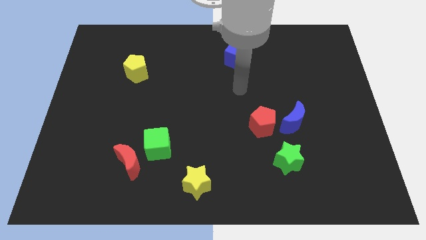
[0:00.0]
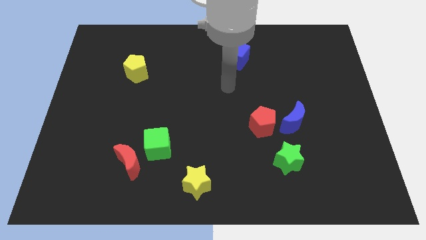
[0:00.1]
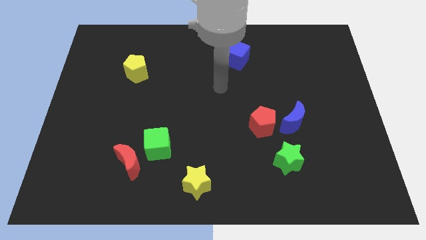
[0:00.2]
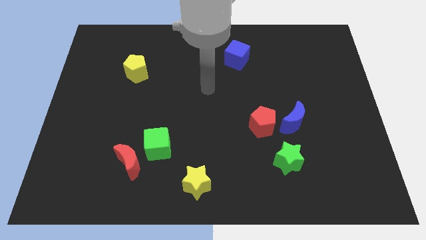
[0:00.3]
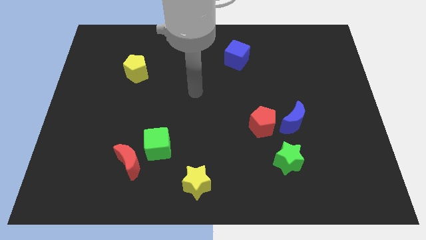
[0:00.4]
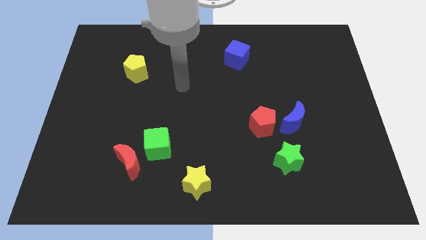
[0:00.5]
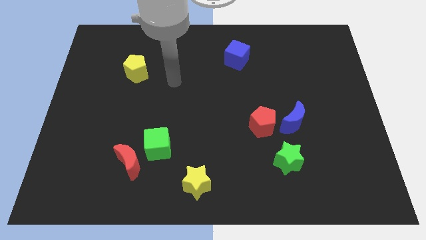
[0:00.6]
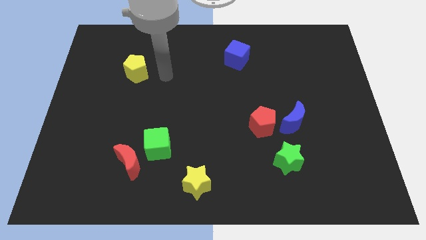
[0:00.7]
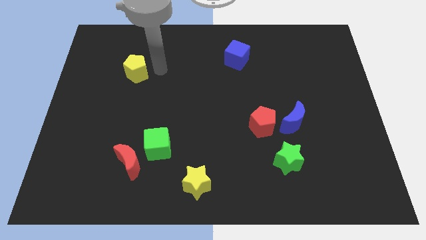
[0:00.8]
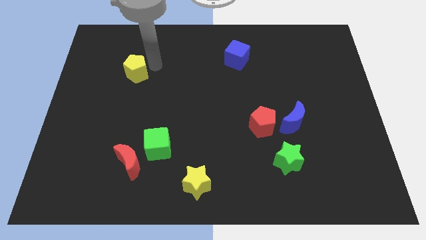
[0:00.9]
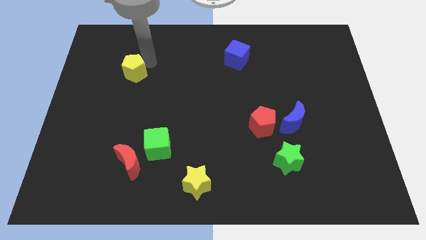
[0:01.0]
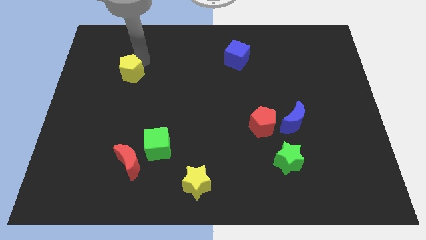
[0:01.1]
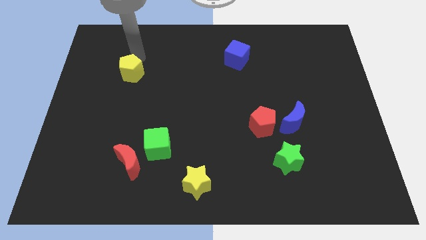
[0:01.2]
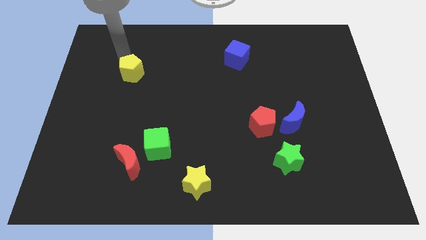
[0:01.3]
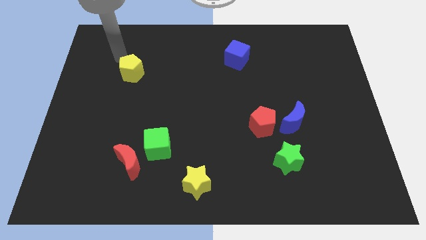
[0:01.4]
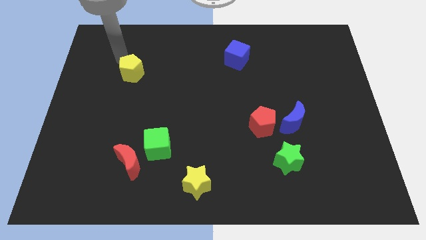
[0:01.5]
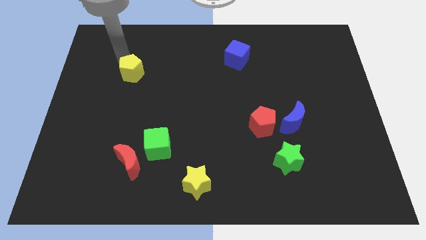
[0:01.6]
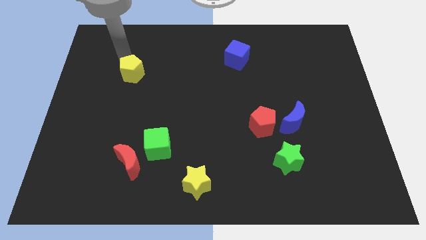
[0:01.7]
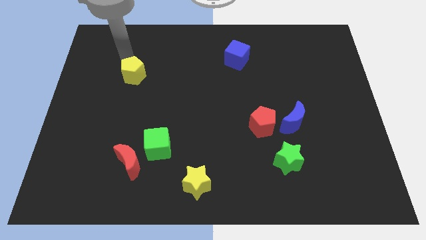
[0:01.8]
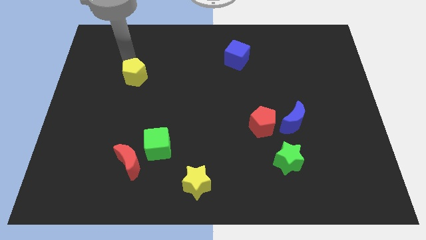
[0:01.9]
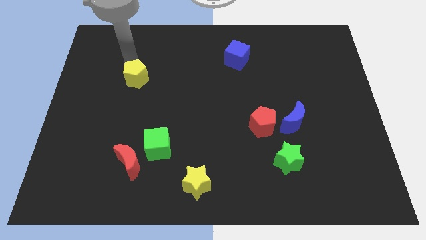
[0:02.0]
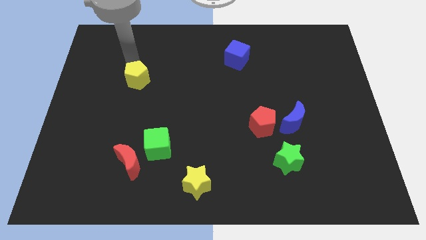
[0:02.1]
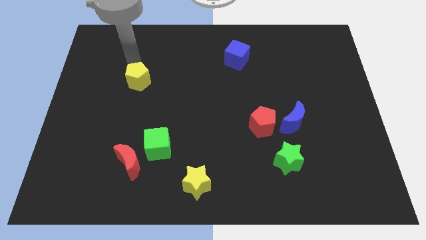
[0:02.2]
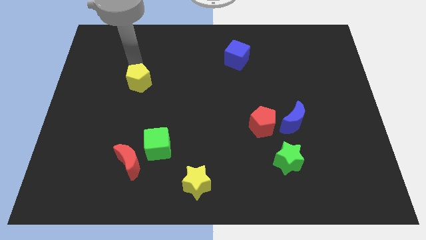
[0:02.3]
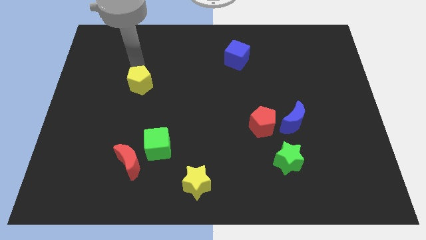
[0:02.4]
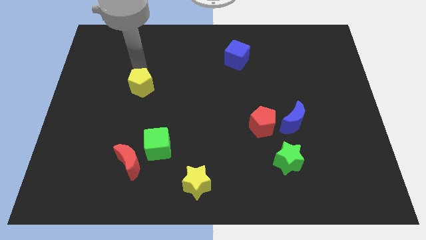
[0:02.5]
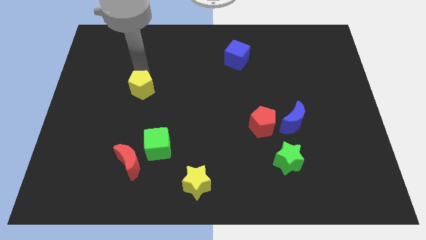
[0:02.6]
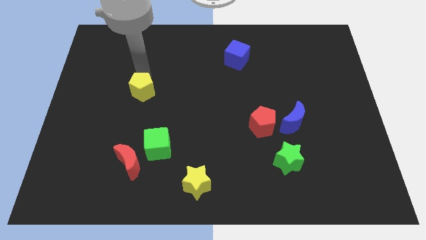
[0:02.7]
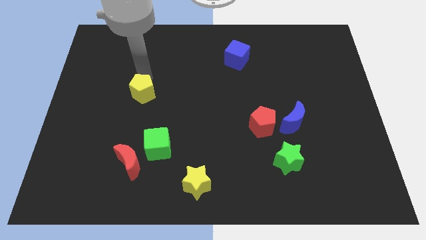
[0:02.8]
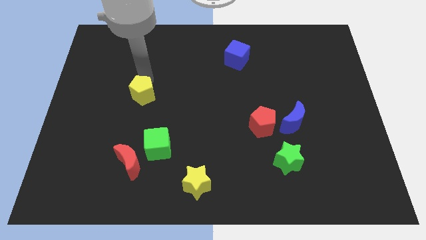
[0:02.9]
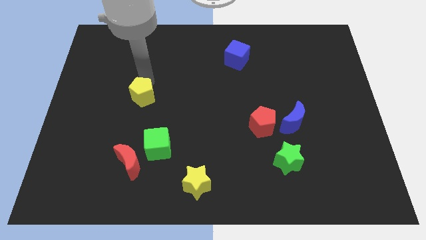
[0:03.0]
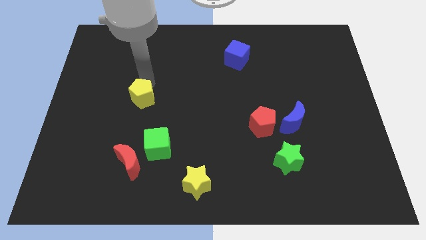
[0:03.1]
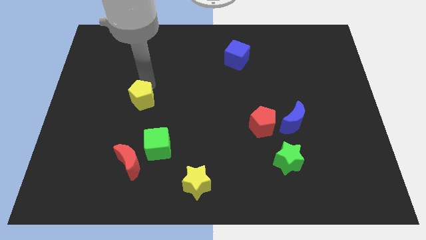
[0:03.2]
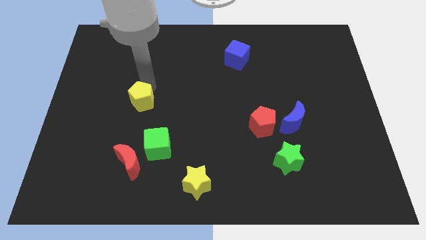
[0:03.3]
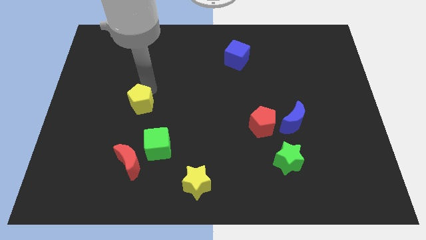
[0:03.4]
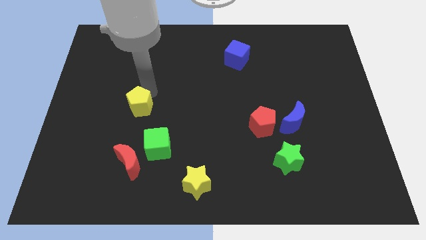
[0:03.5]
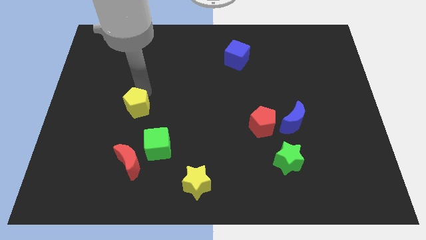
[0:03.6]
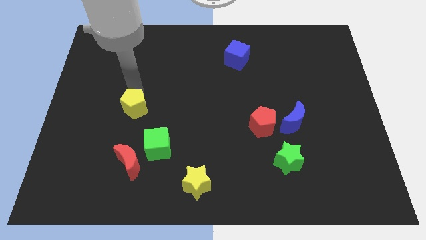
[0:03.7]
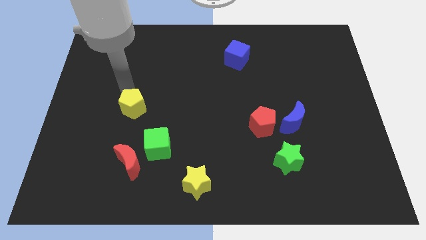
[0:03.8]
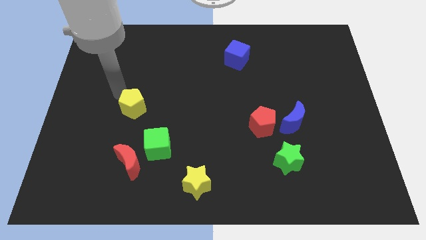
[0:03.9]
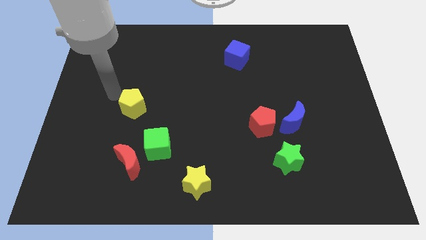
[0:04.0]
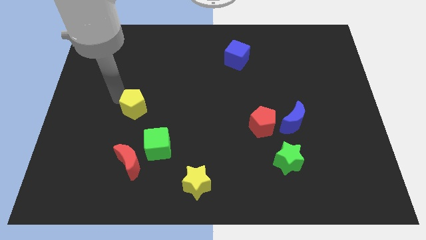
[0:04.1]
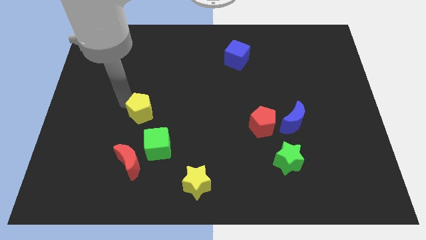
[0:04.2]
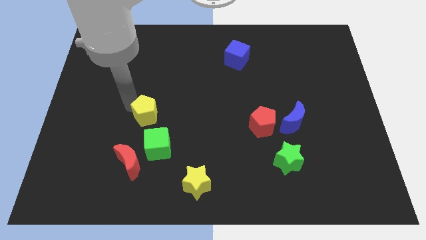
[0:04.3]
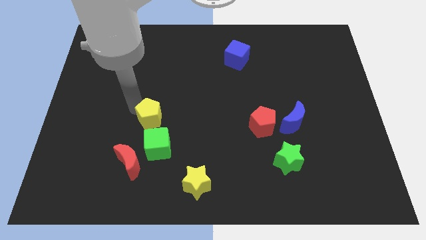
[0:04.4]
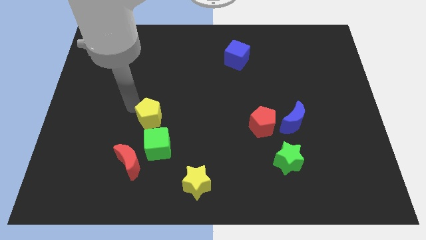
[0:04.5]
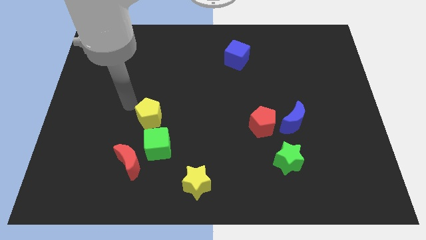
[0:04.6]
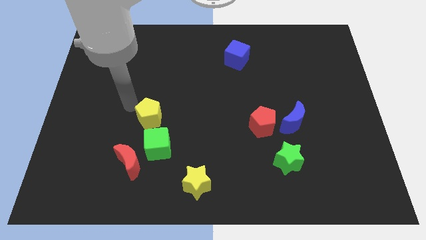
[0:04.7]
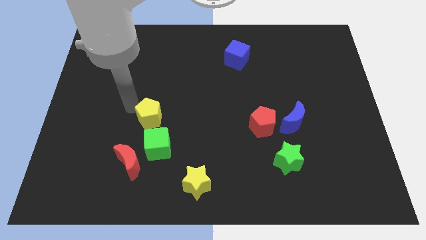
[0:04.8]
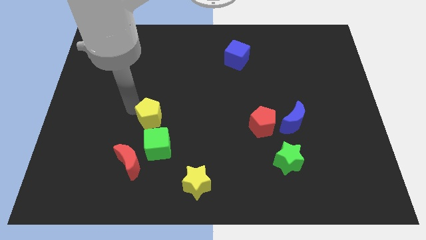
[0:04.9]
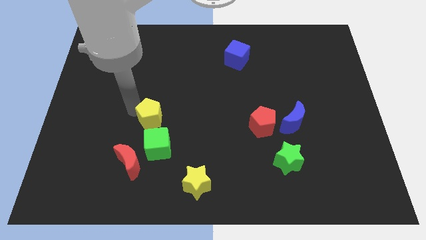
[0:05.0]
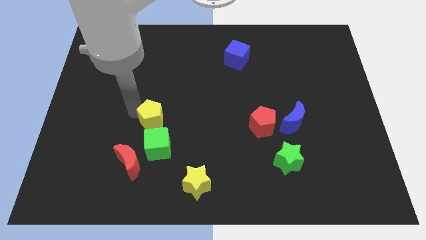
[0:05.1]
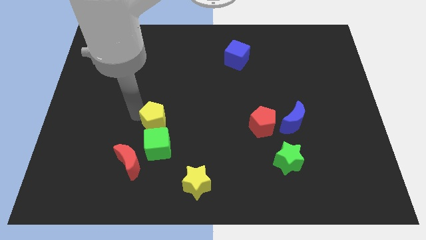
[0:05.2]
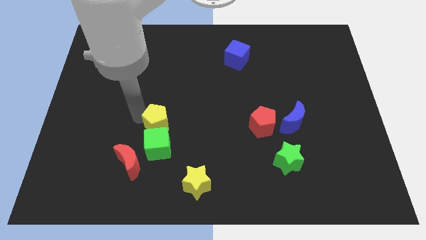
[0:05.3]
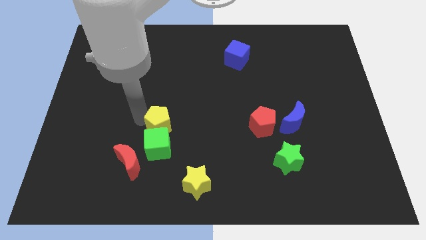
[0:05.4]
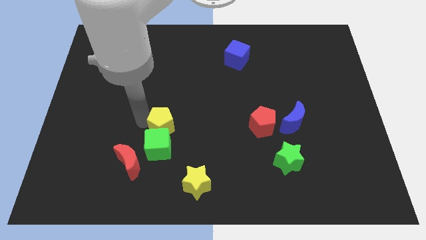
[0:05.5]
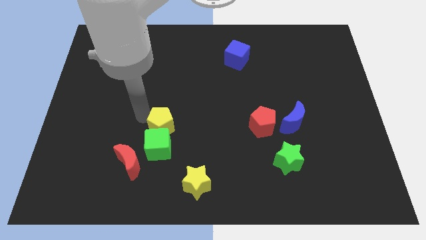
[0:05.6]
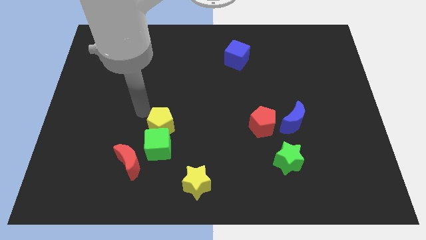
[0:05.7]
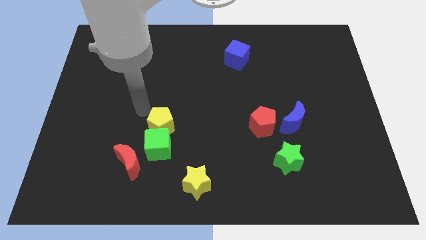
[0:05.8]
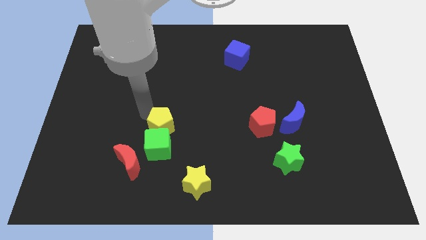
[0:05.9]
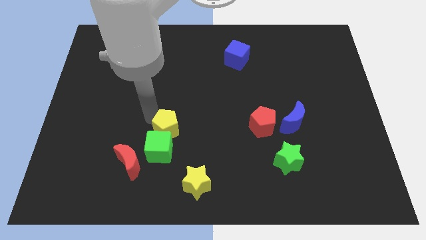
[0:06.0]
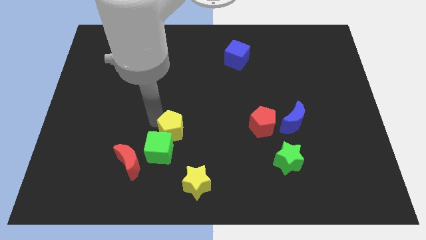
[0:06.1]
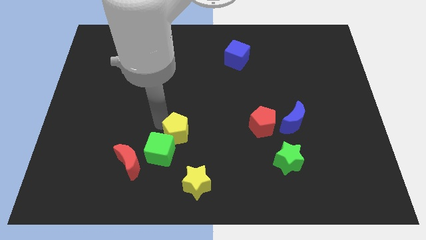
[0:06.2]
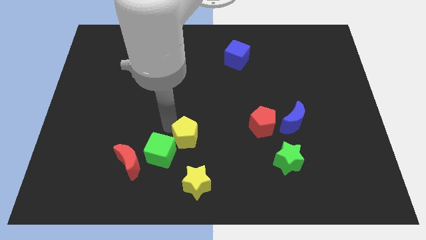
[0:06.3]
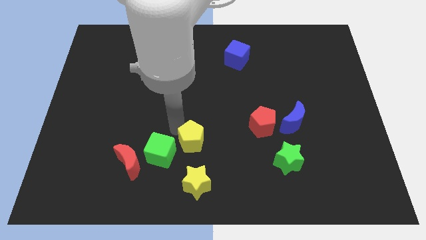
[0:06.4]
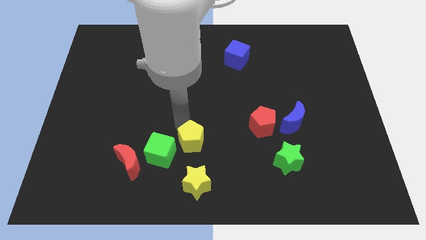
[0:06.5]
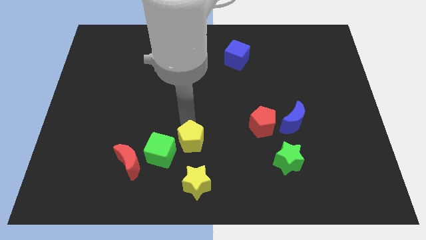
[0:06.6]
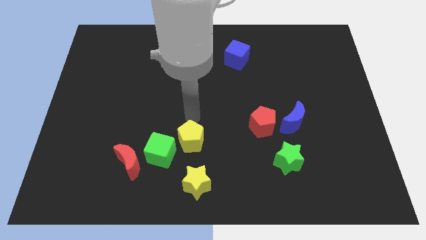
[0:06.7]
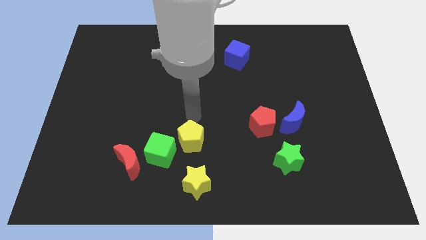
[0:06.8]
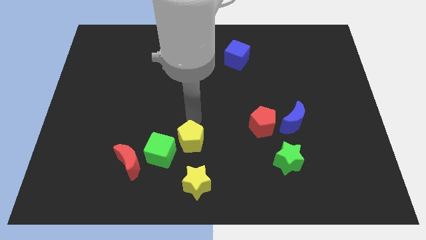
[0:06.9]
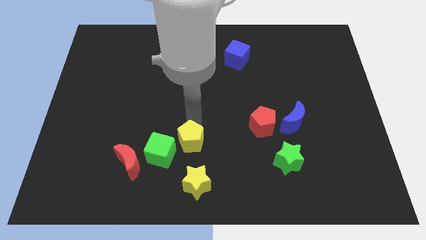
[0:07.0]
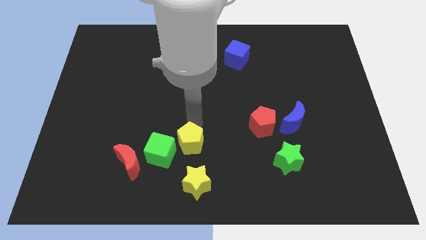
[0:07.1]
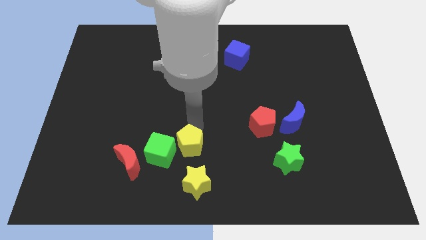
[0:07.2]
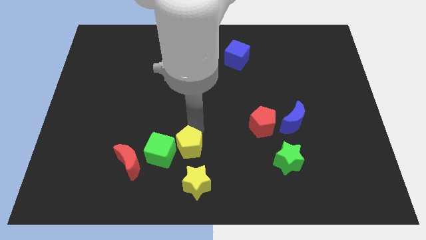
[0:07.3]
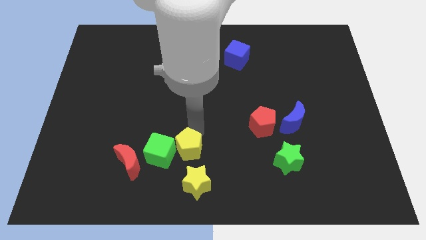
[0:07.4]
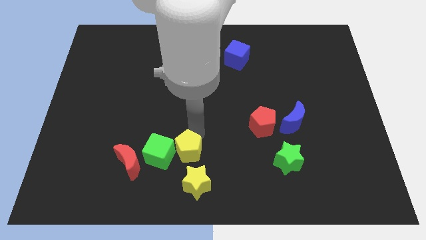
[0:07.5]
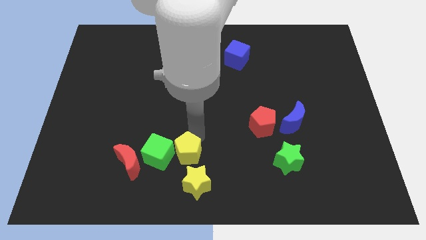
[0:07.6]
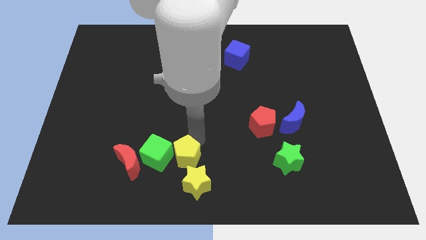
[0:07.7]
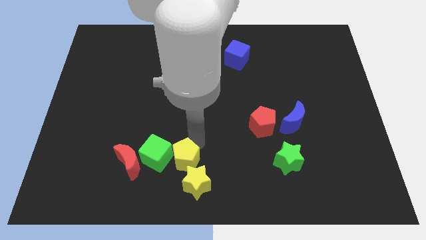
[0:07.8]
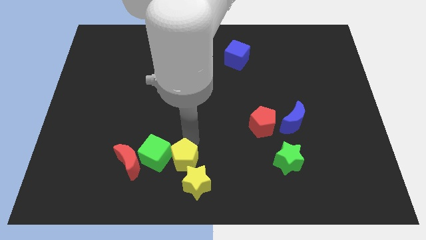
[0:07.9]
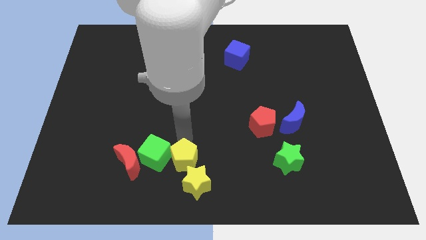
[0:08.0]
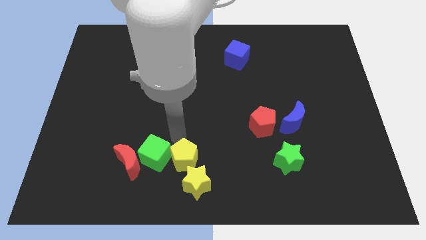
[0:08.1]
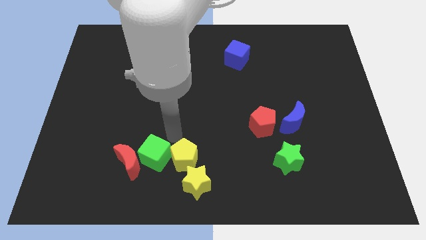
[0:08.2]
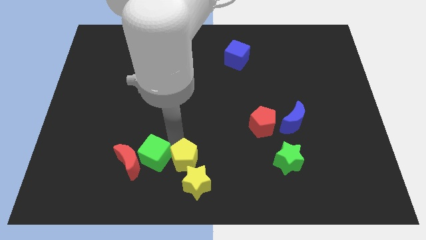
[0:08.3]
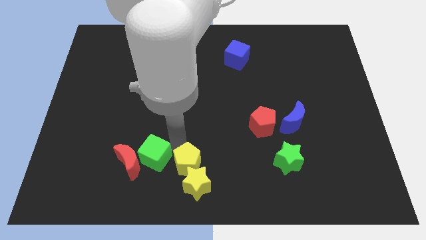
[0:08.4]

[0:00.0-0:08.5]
push the yellow pentagon next to the yellow star
